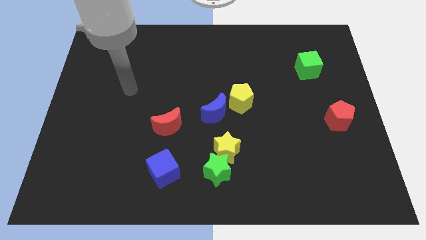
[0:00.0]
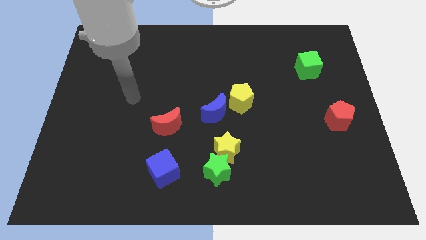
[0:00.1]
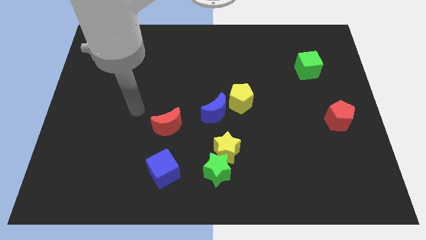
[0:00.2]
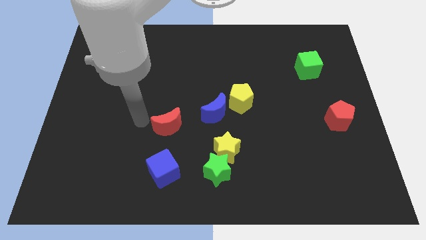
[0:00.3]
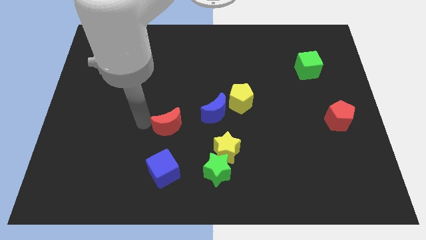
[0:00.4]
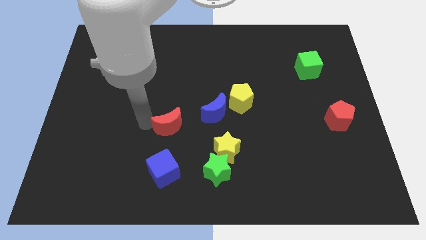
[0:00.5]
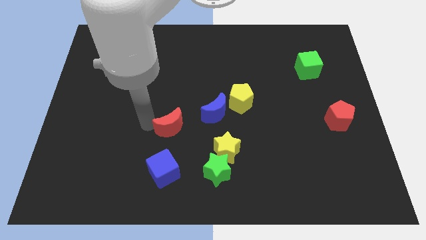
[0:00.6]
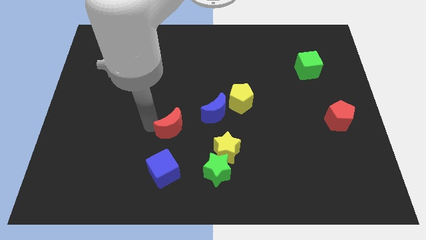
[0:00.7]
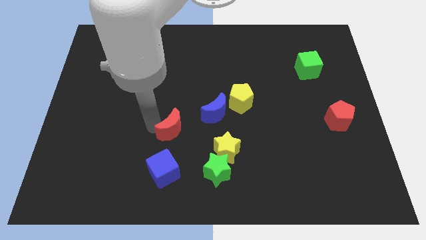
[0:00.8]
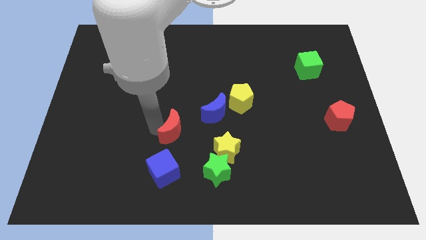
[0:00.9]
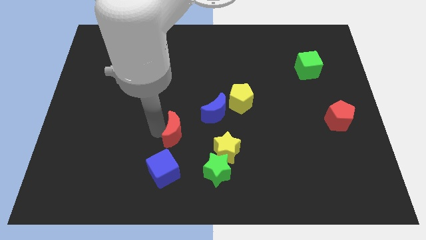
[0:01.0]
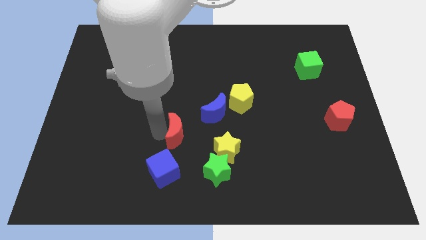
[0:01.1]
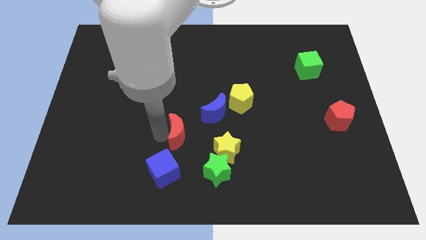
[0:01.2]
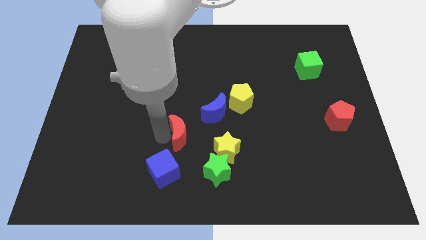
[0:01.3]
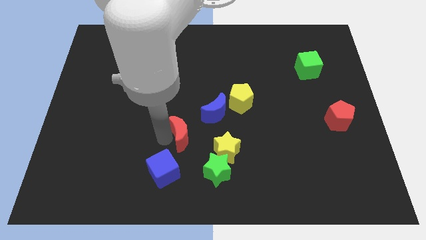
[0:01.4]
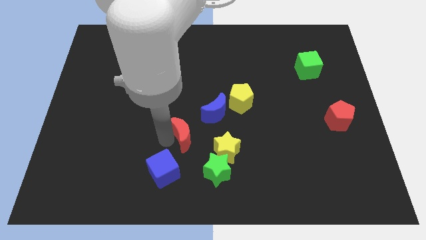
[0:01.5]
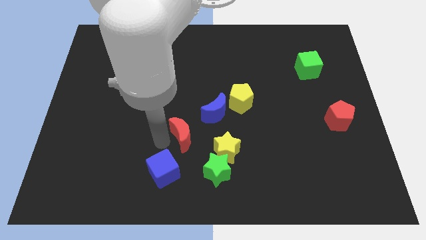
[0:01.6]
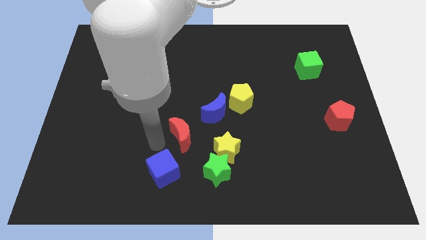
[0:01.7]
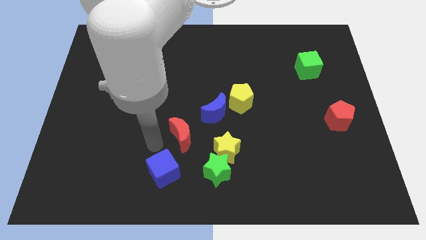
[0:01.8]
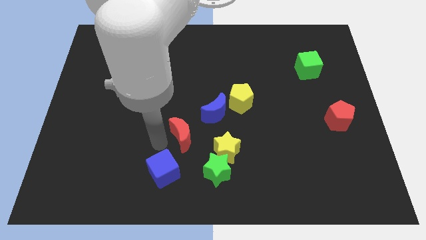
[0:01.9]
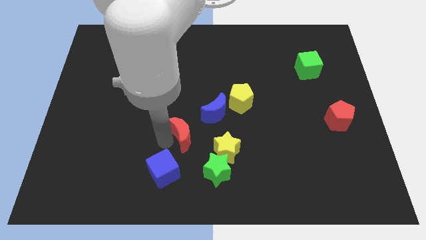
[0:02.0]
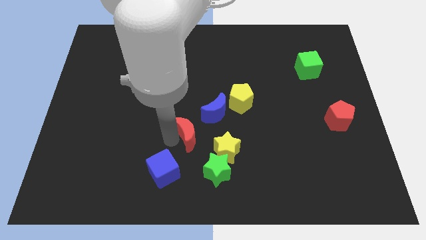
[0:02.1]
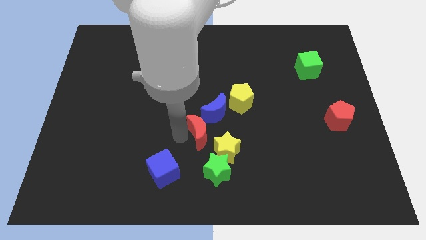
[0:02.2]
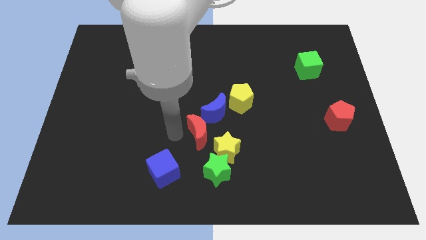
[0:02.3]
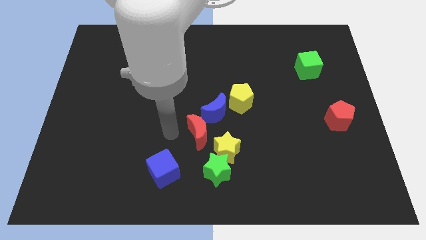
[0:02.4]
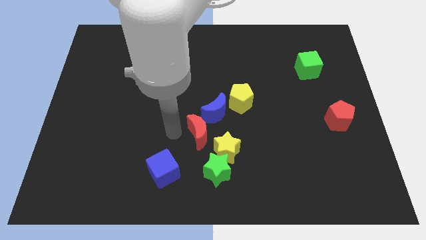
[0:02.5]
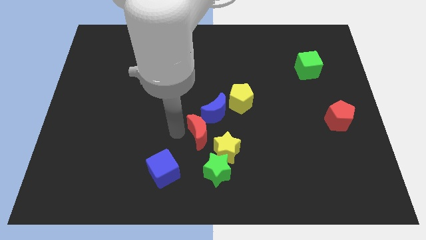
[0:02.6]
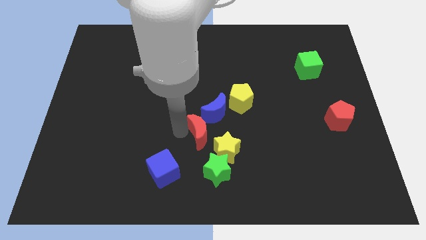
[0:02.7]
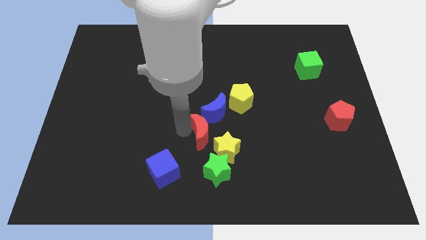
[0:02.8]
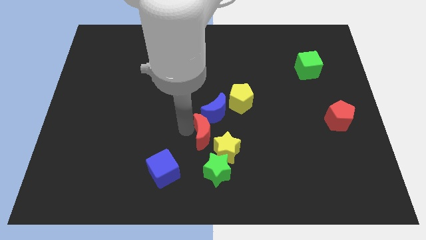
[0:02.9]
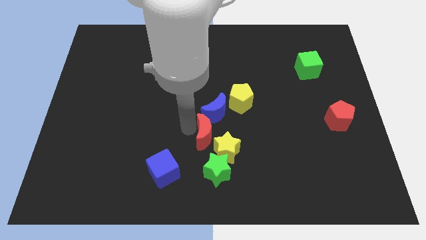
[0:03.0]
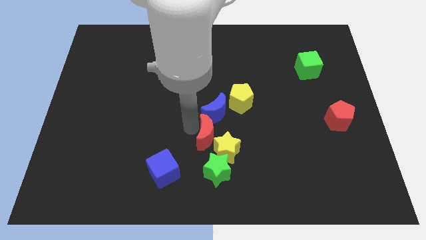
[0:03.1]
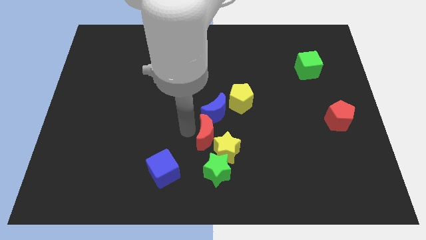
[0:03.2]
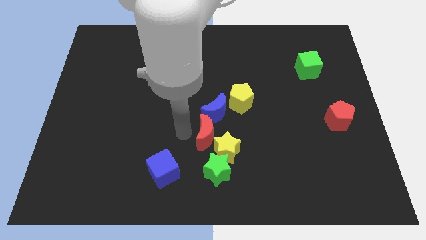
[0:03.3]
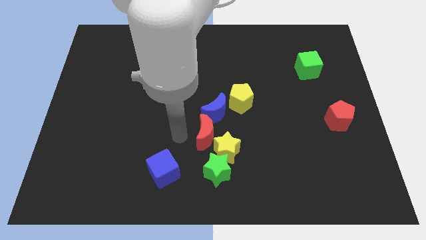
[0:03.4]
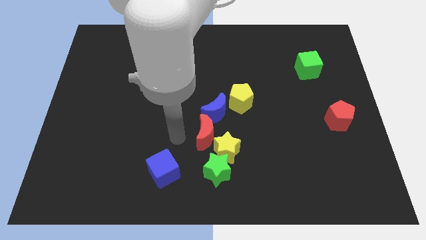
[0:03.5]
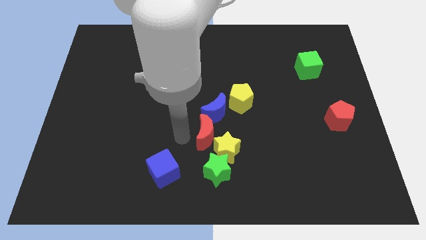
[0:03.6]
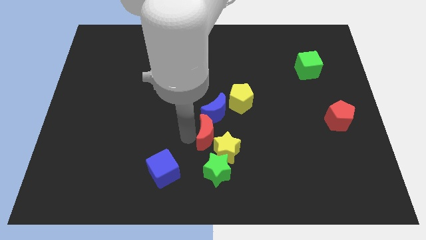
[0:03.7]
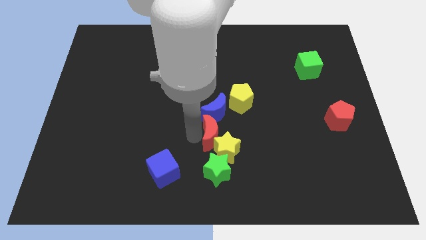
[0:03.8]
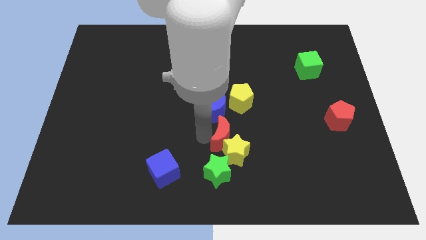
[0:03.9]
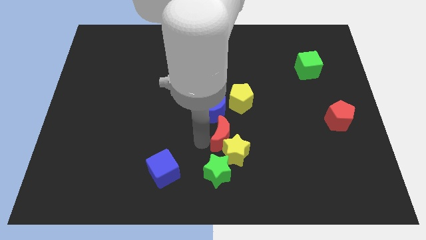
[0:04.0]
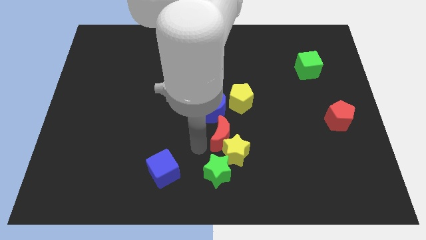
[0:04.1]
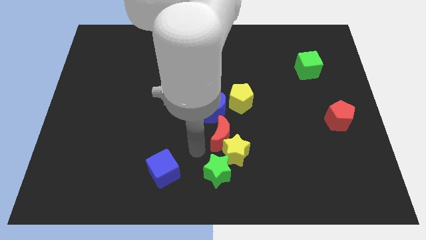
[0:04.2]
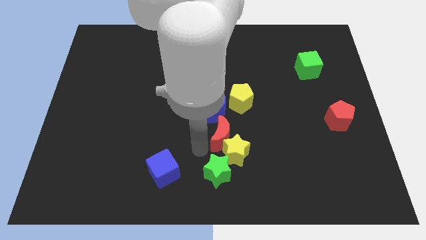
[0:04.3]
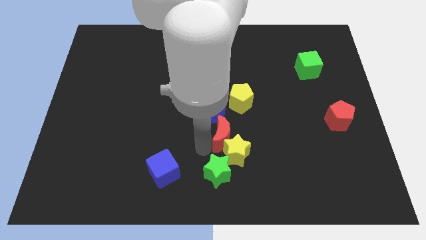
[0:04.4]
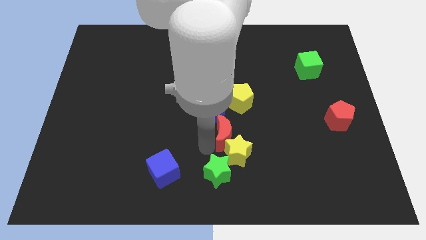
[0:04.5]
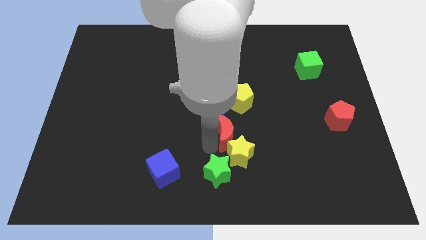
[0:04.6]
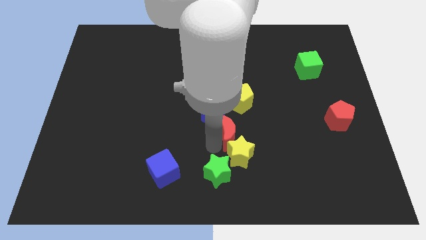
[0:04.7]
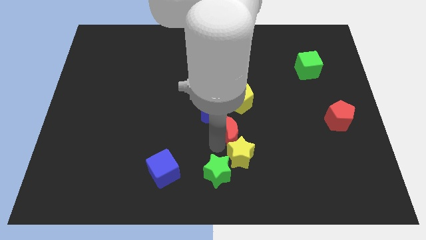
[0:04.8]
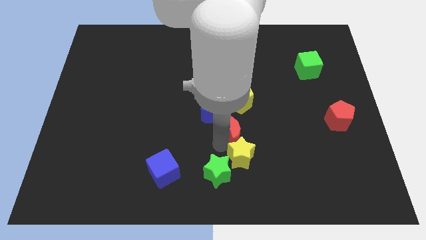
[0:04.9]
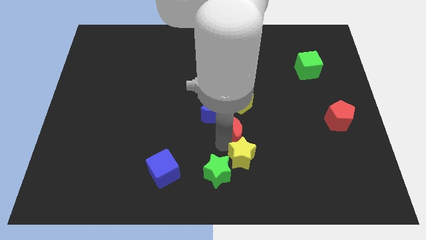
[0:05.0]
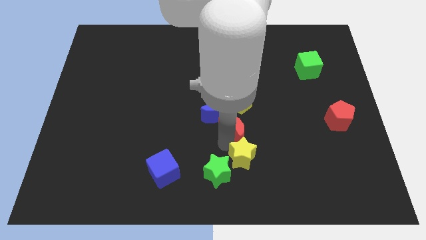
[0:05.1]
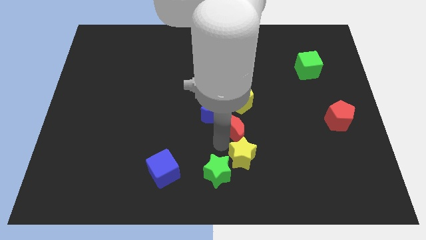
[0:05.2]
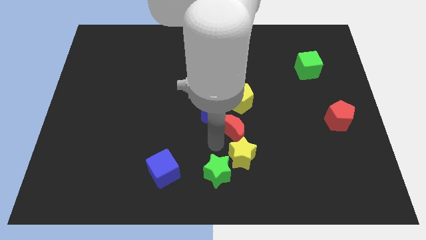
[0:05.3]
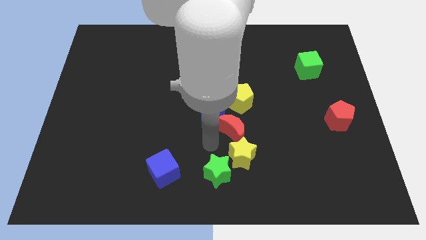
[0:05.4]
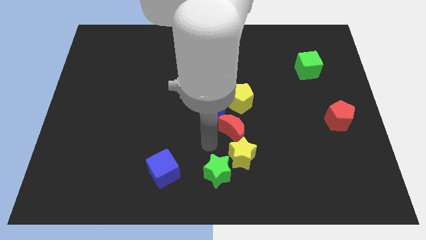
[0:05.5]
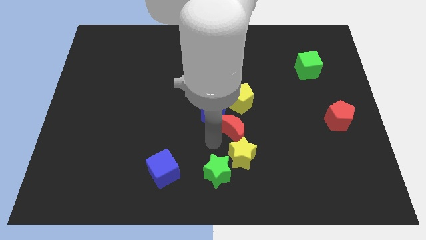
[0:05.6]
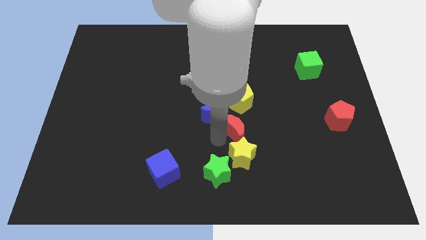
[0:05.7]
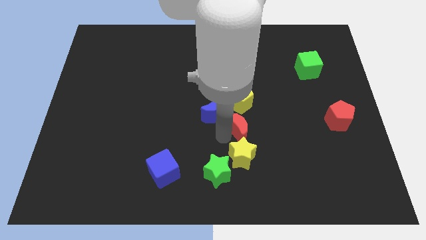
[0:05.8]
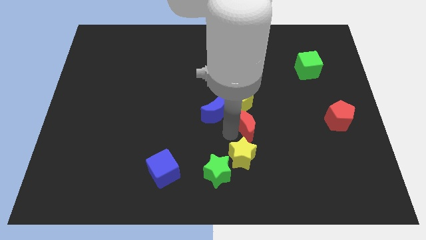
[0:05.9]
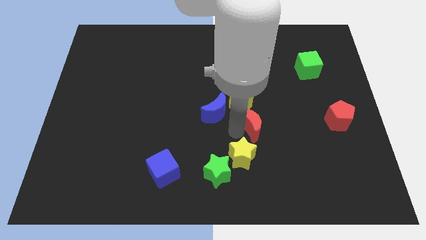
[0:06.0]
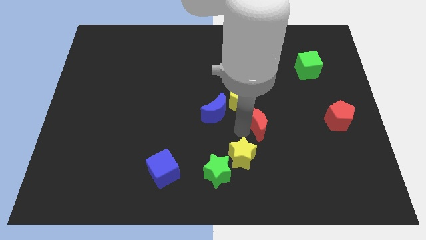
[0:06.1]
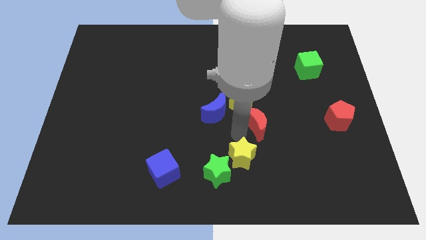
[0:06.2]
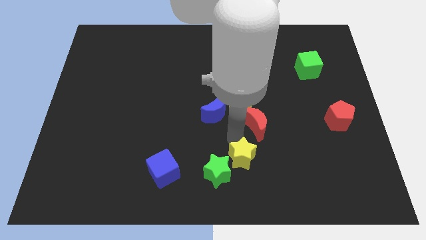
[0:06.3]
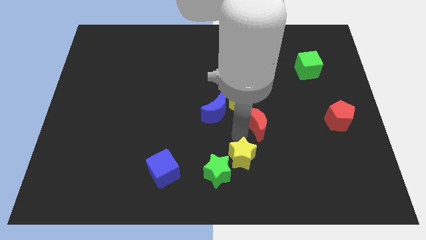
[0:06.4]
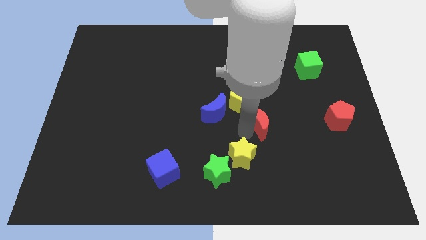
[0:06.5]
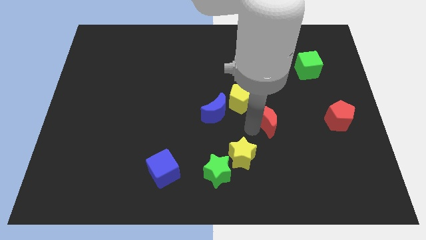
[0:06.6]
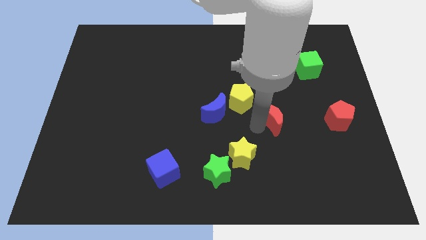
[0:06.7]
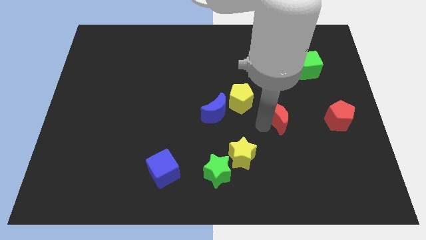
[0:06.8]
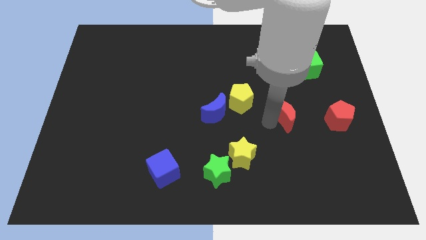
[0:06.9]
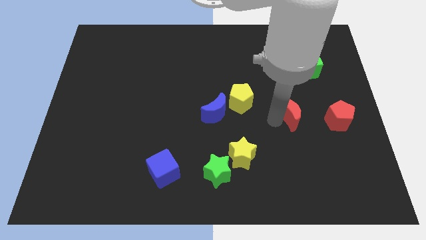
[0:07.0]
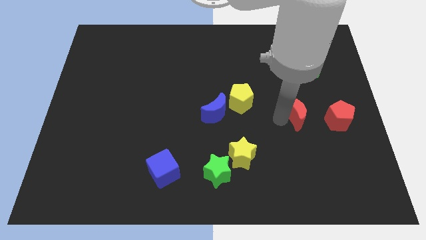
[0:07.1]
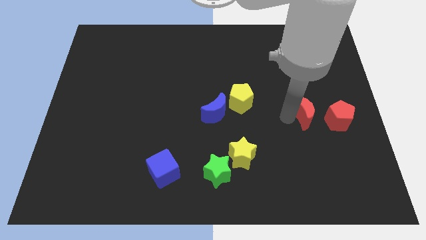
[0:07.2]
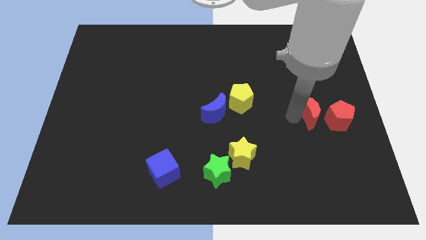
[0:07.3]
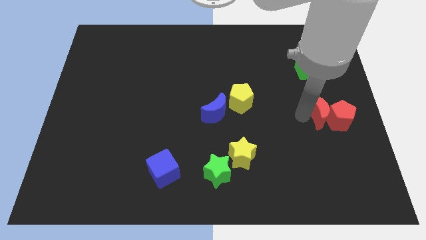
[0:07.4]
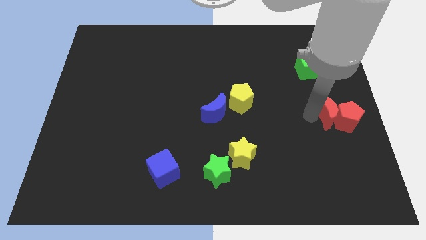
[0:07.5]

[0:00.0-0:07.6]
slide the red moon to the right side

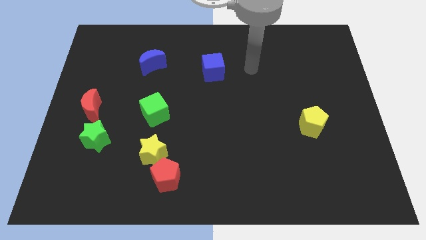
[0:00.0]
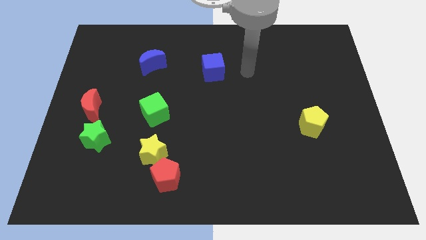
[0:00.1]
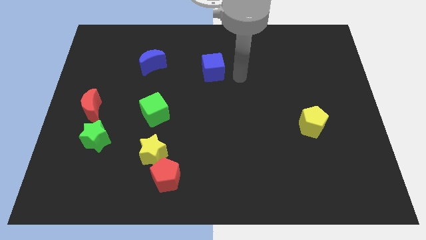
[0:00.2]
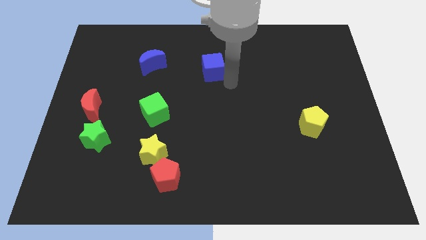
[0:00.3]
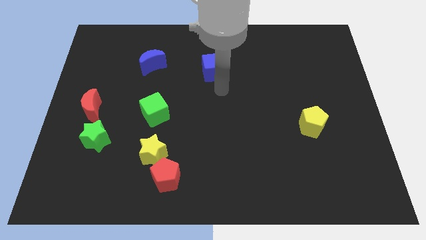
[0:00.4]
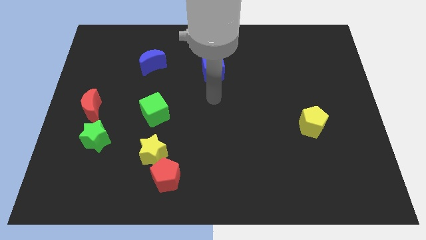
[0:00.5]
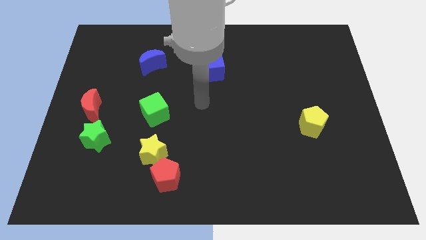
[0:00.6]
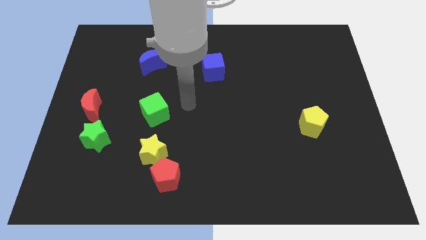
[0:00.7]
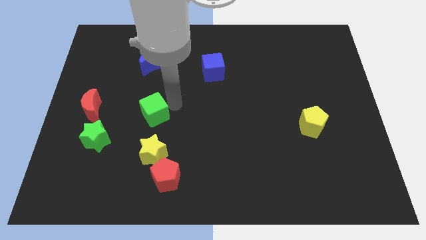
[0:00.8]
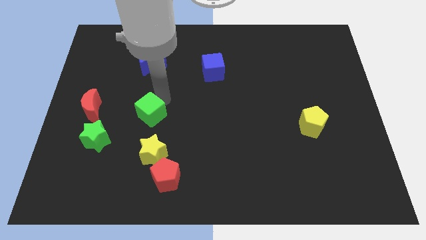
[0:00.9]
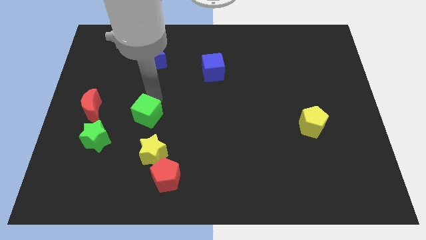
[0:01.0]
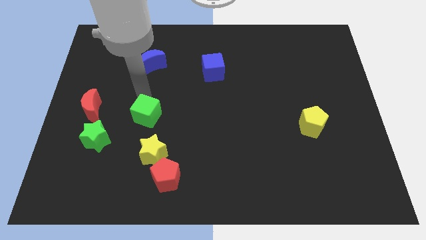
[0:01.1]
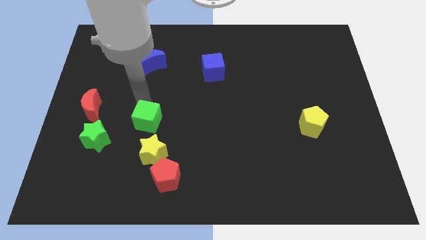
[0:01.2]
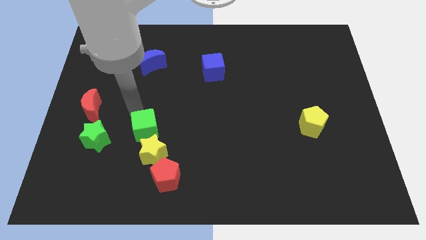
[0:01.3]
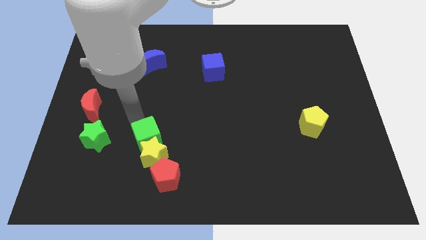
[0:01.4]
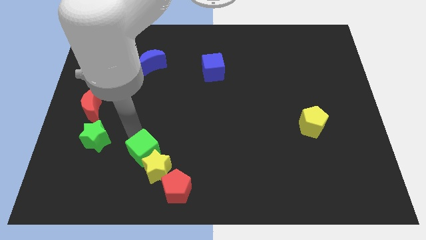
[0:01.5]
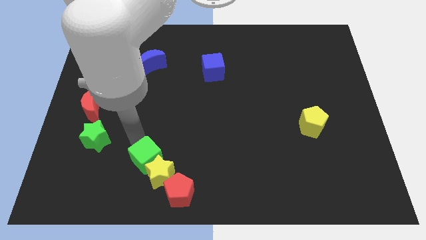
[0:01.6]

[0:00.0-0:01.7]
move the yellow star to the bottom
